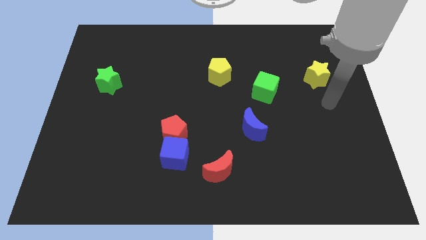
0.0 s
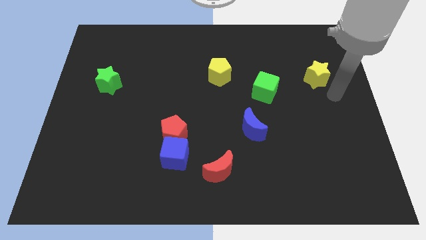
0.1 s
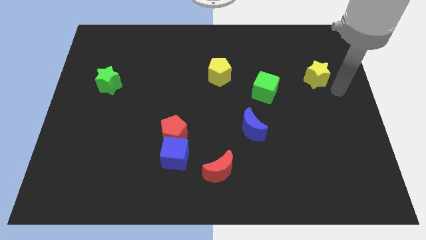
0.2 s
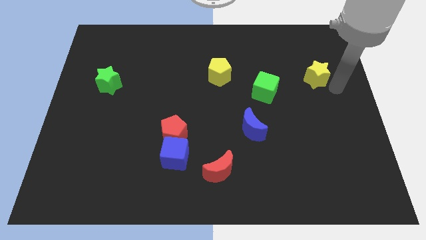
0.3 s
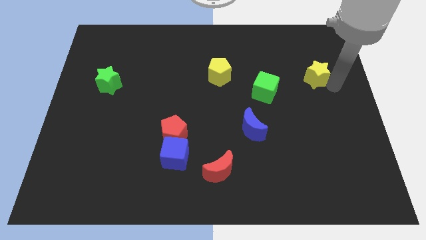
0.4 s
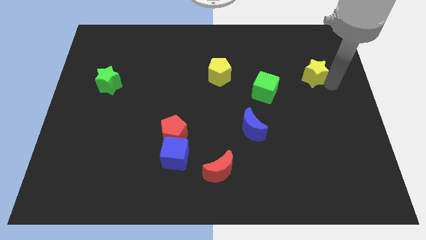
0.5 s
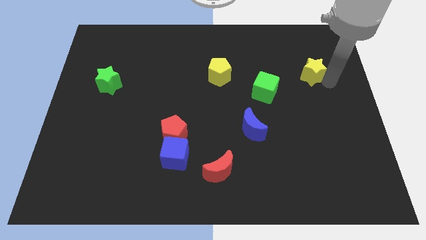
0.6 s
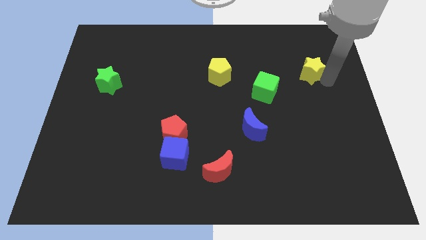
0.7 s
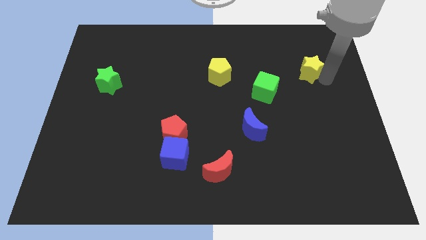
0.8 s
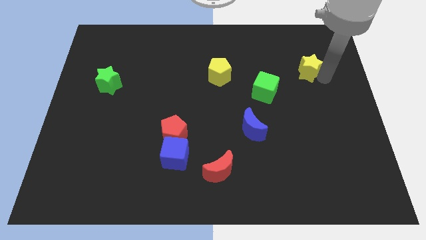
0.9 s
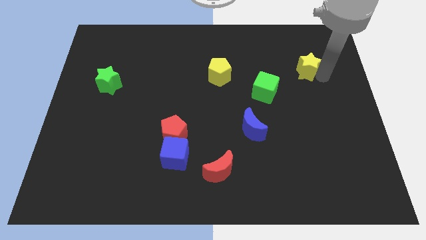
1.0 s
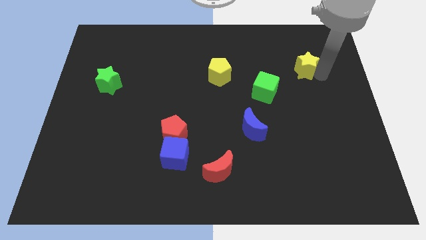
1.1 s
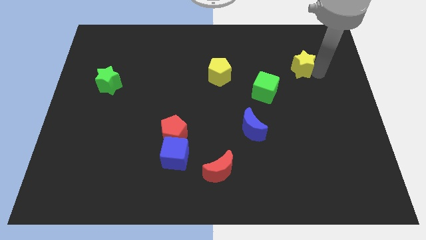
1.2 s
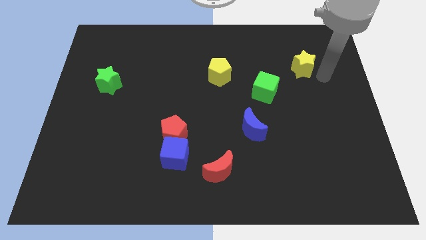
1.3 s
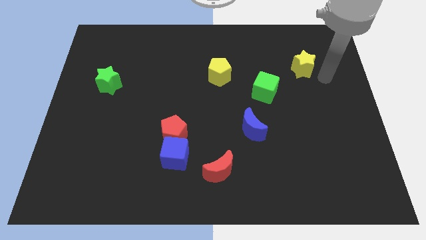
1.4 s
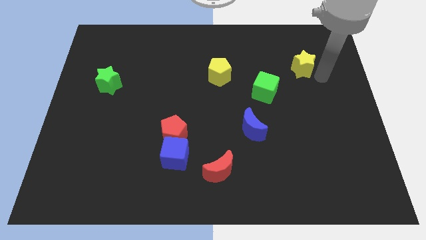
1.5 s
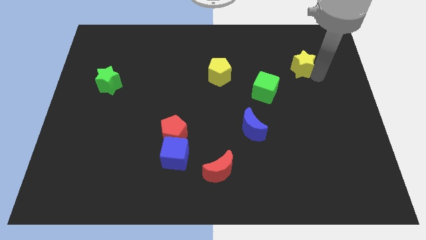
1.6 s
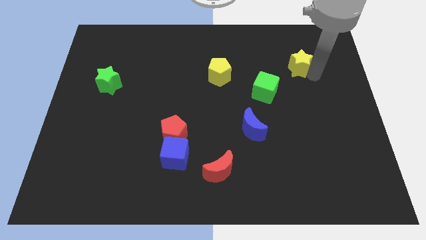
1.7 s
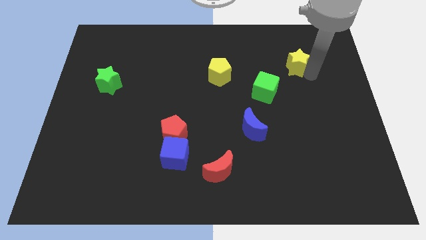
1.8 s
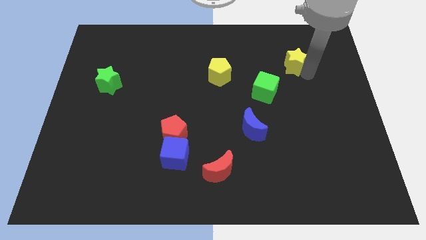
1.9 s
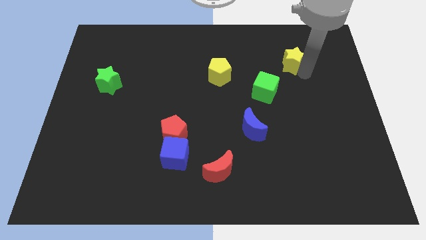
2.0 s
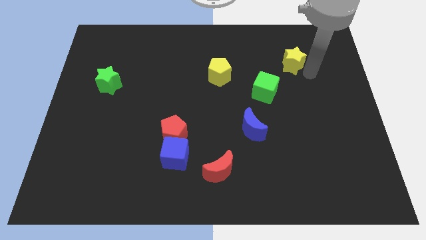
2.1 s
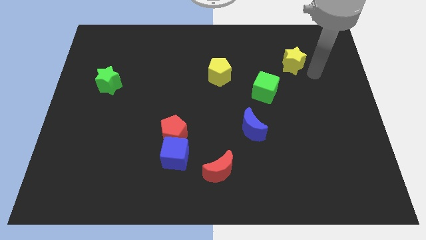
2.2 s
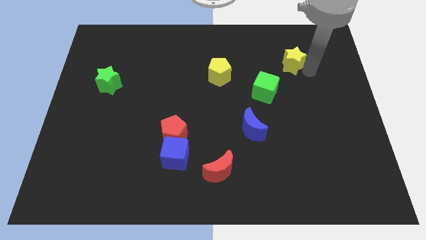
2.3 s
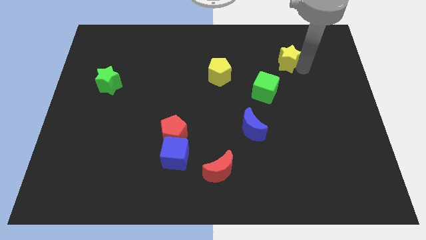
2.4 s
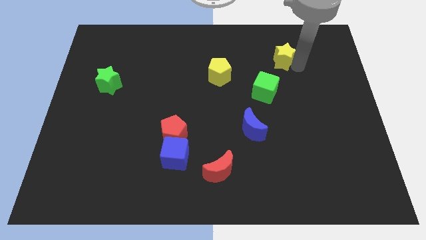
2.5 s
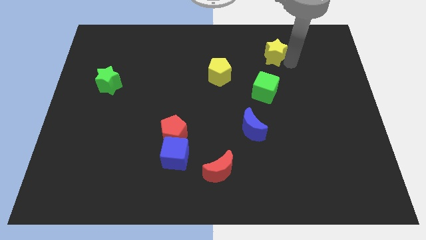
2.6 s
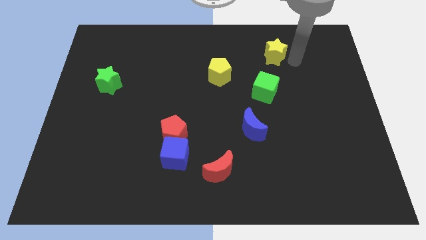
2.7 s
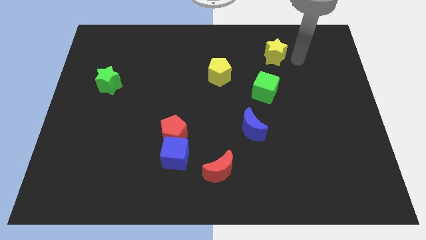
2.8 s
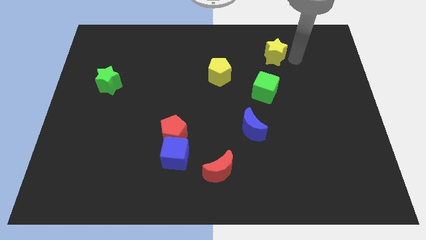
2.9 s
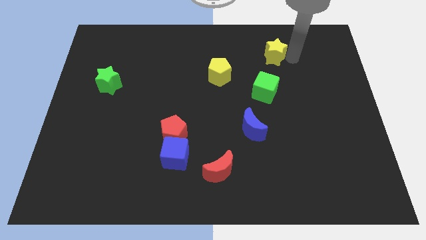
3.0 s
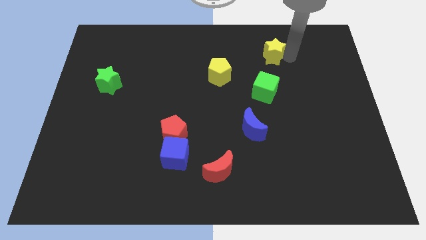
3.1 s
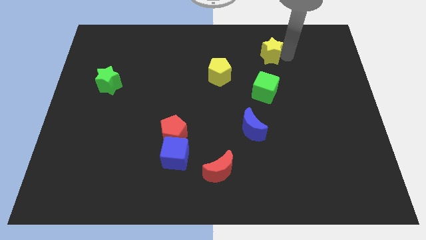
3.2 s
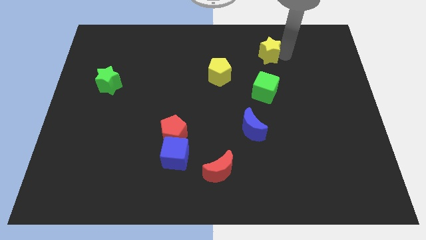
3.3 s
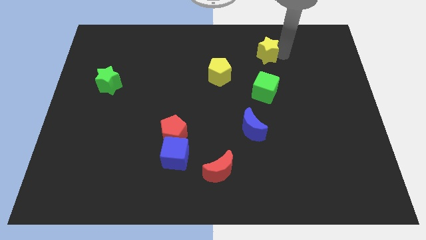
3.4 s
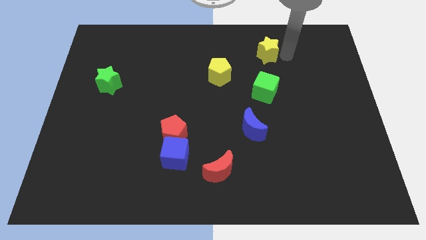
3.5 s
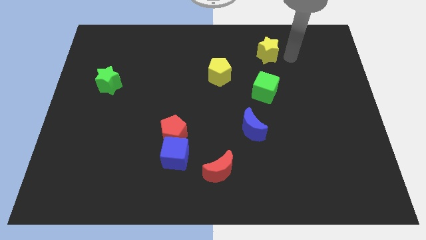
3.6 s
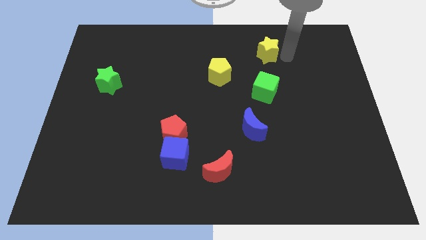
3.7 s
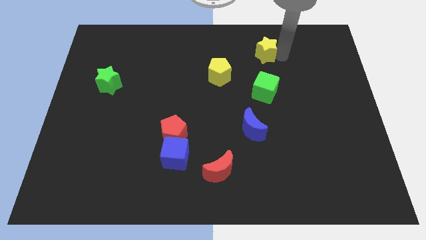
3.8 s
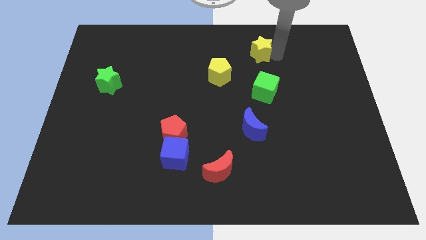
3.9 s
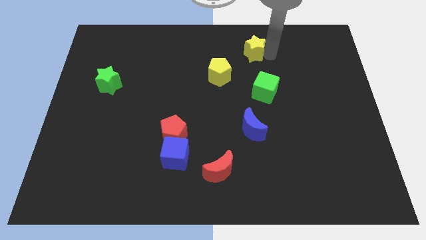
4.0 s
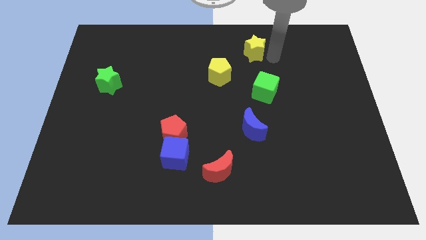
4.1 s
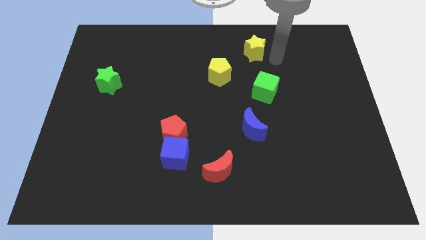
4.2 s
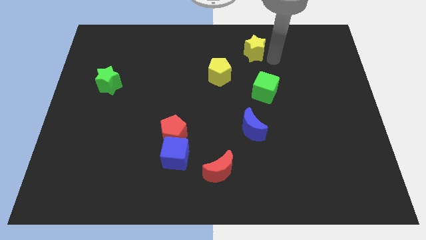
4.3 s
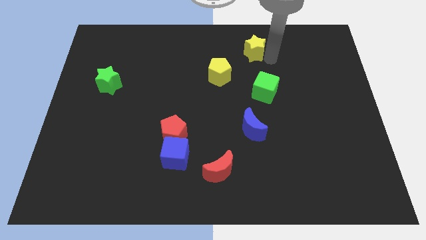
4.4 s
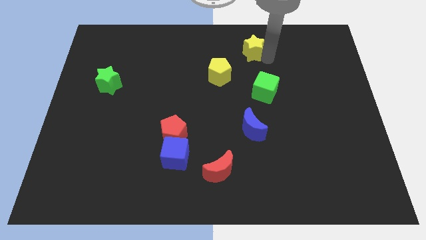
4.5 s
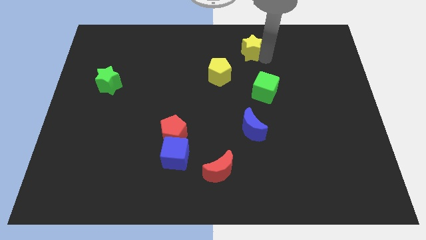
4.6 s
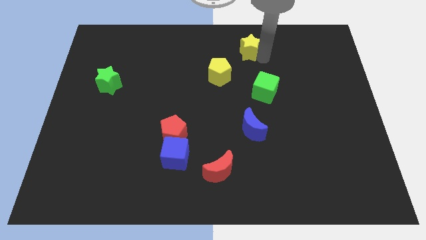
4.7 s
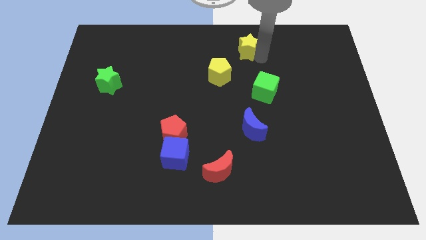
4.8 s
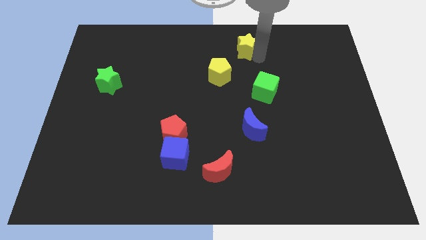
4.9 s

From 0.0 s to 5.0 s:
move the yellow star to the top side

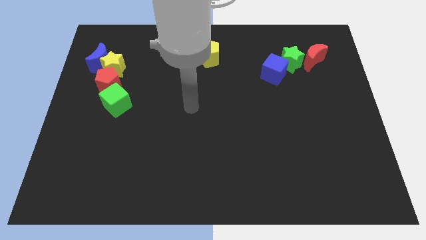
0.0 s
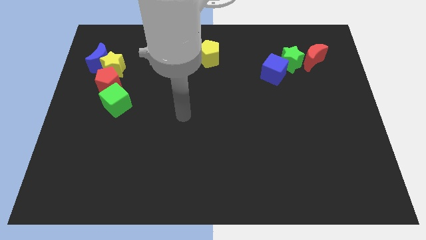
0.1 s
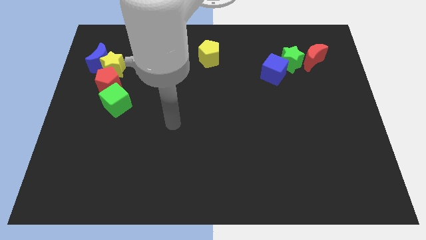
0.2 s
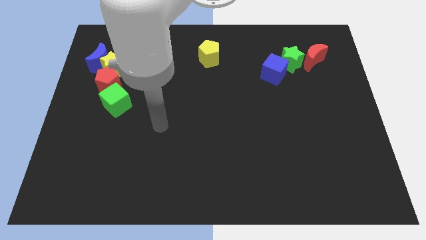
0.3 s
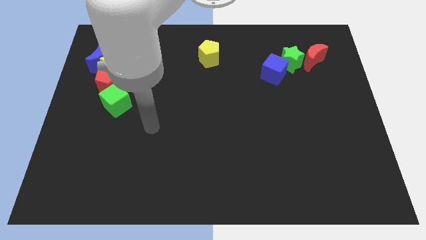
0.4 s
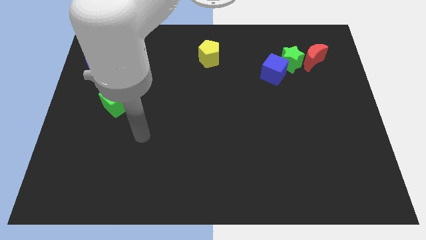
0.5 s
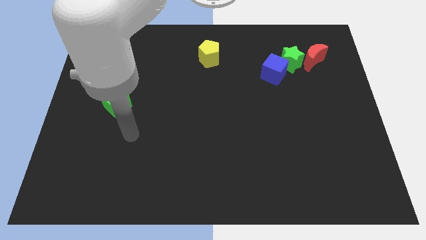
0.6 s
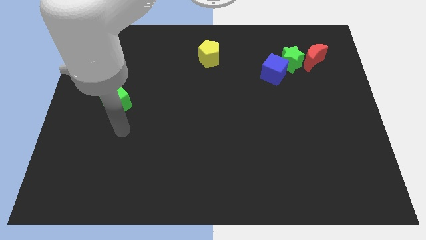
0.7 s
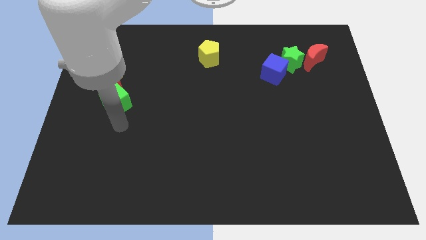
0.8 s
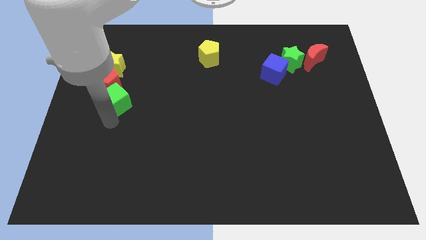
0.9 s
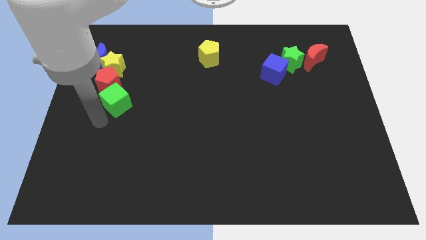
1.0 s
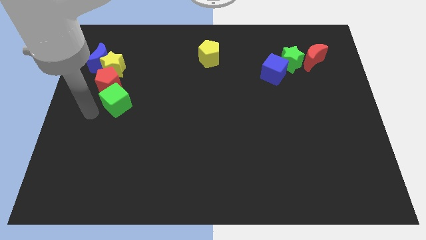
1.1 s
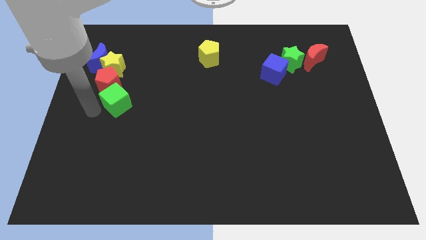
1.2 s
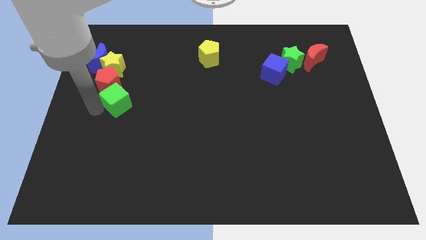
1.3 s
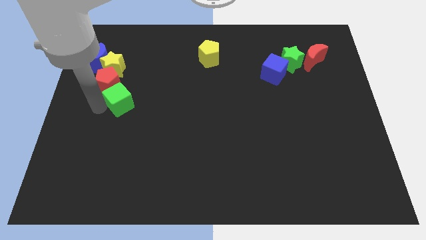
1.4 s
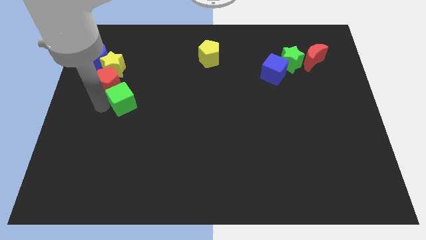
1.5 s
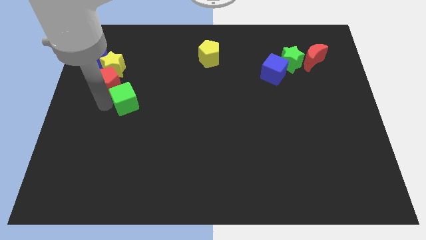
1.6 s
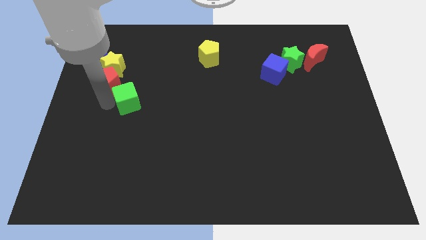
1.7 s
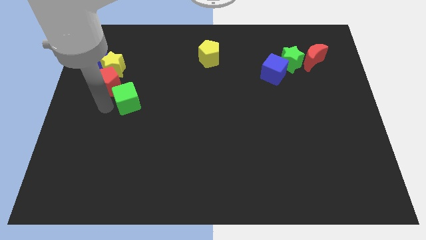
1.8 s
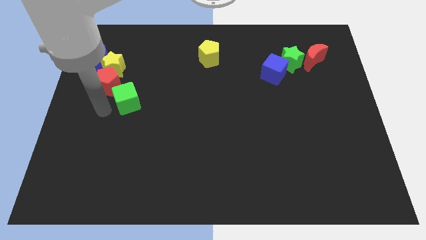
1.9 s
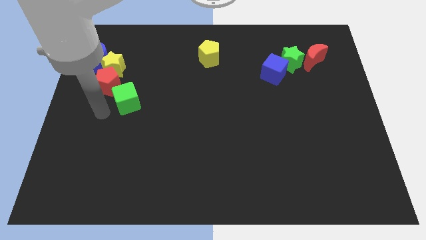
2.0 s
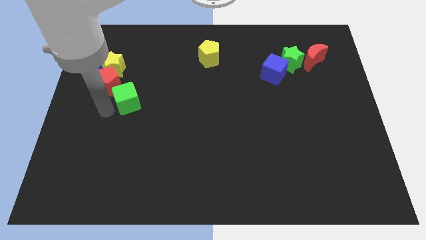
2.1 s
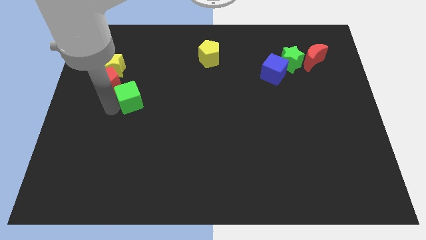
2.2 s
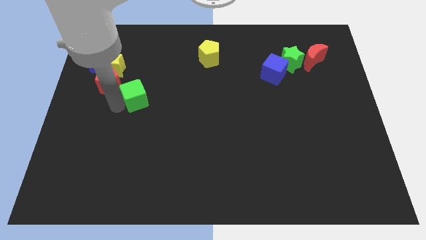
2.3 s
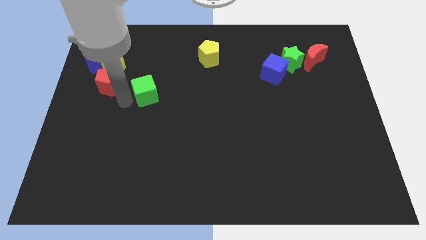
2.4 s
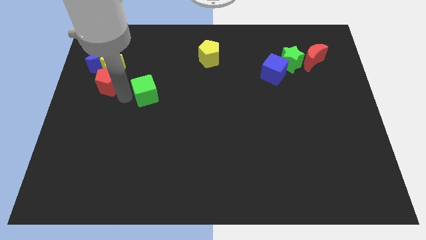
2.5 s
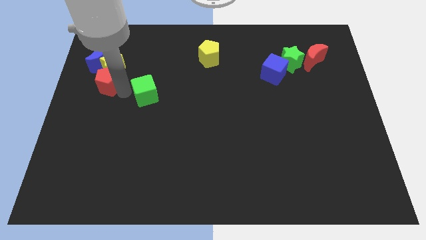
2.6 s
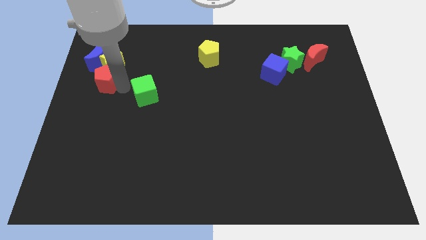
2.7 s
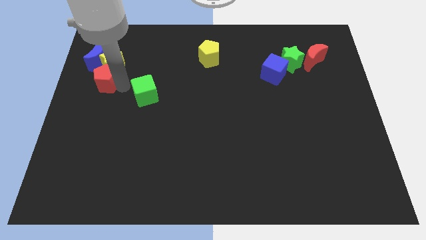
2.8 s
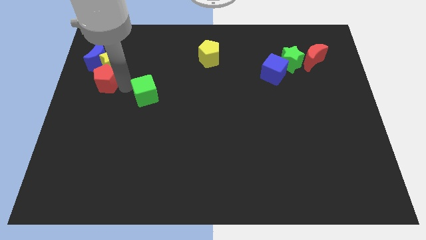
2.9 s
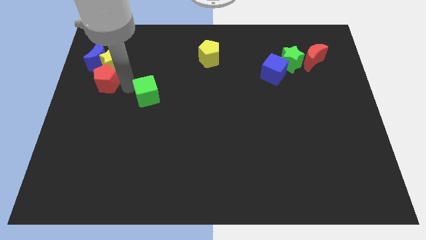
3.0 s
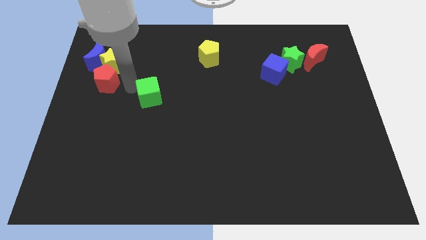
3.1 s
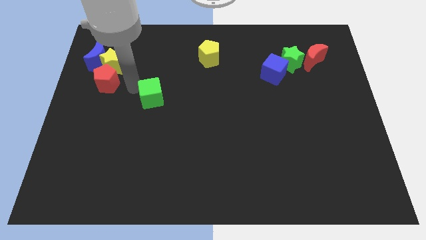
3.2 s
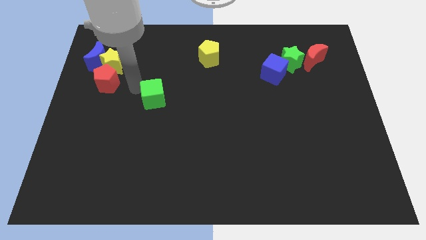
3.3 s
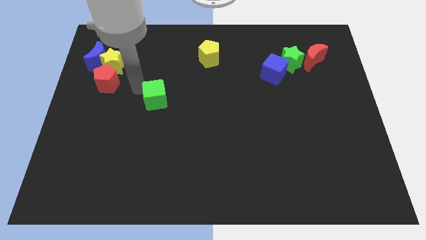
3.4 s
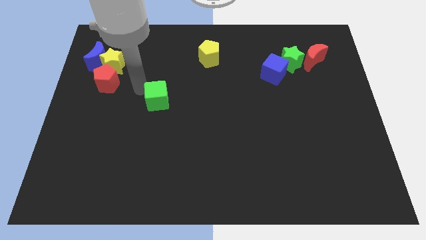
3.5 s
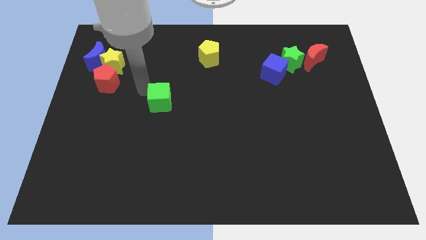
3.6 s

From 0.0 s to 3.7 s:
push the green cube to the middle of the board
